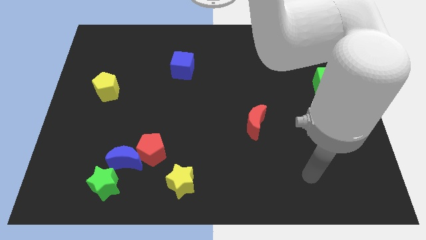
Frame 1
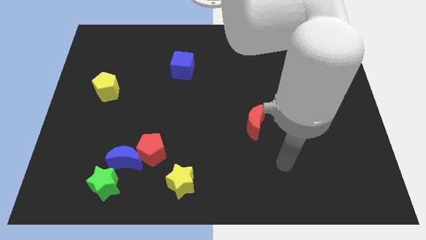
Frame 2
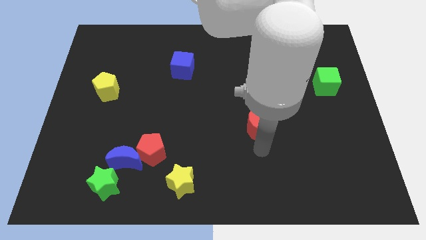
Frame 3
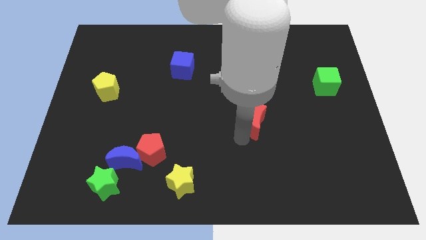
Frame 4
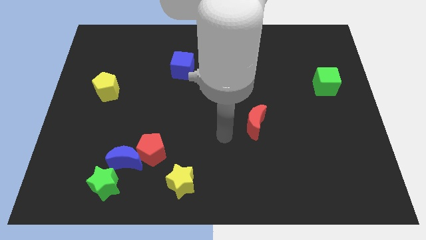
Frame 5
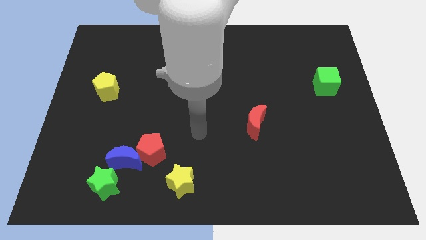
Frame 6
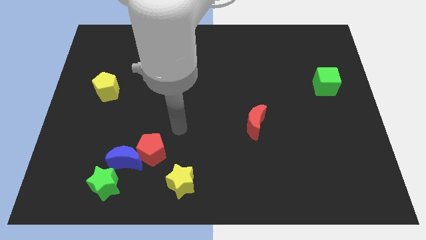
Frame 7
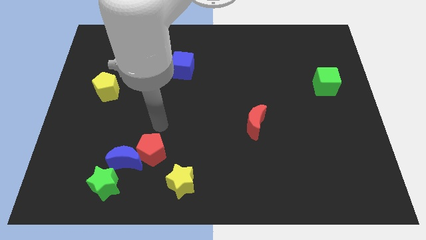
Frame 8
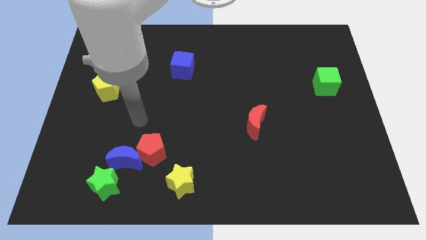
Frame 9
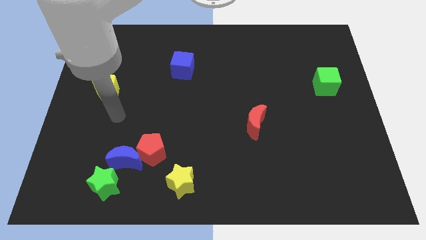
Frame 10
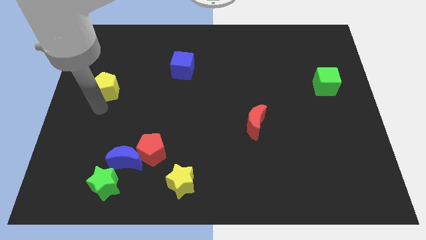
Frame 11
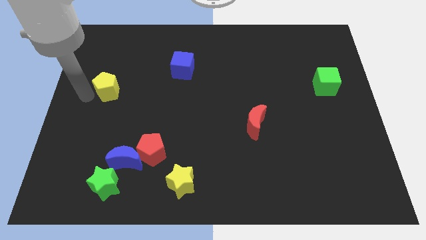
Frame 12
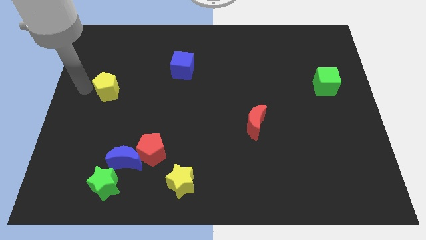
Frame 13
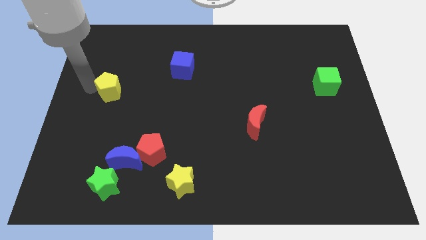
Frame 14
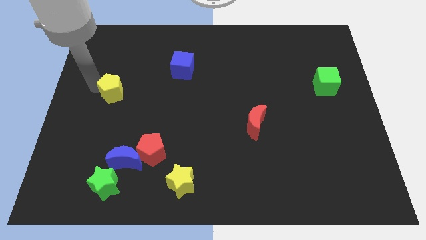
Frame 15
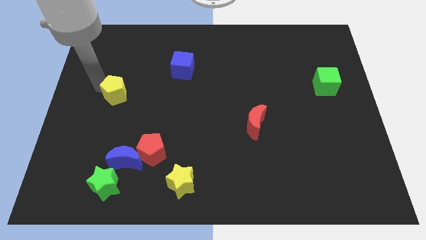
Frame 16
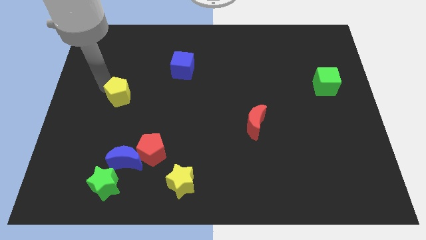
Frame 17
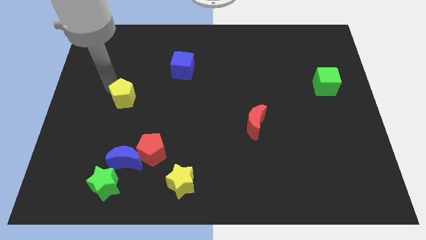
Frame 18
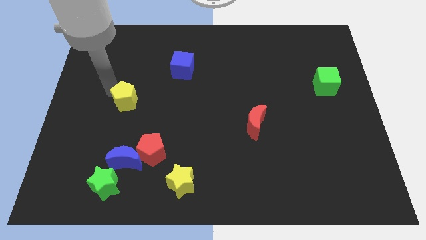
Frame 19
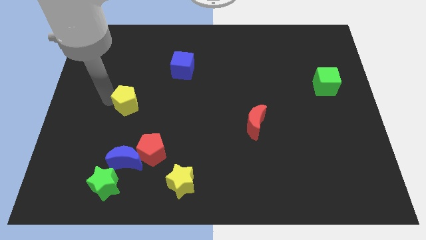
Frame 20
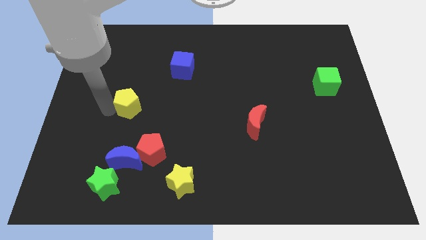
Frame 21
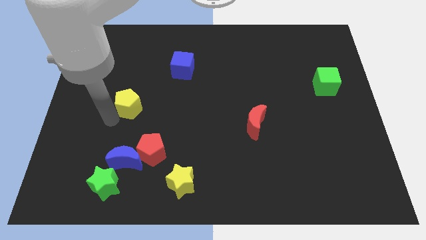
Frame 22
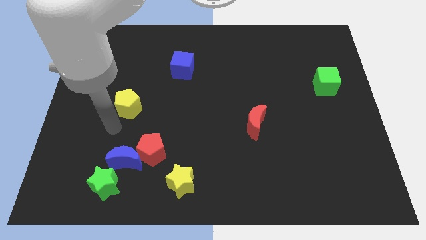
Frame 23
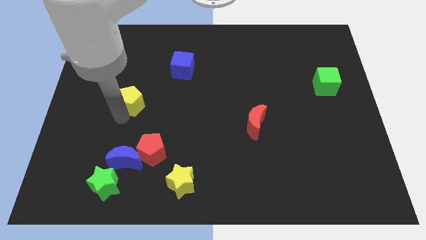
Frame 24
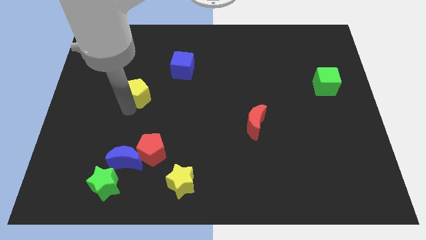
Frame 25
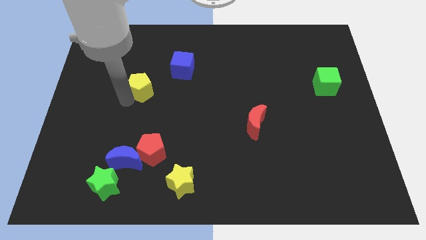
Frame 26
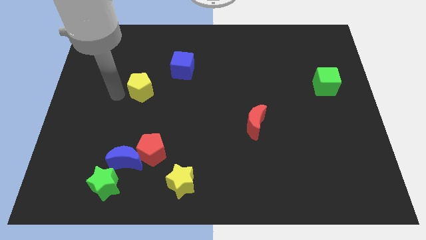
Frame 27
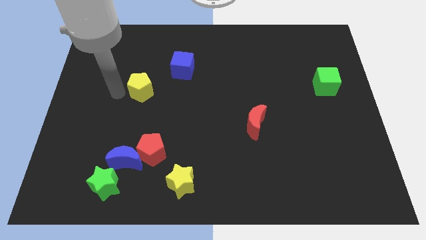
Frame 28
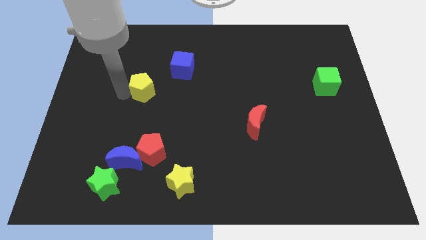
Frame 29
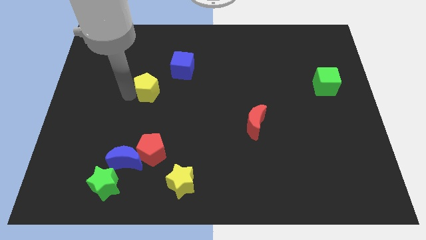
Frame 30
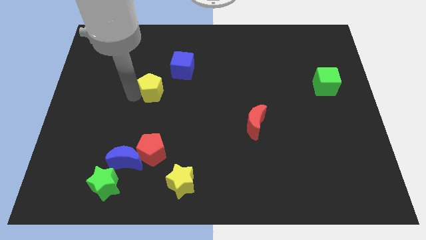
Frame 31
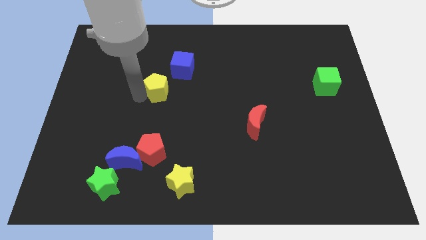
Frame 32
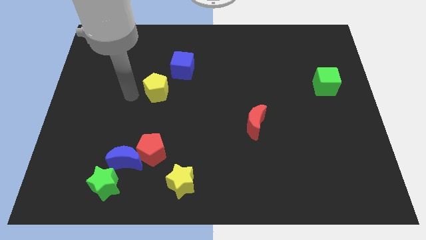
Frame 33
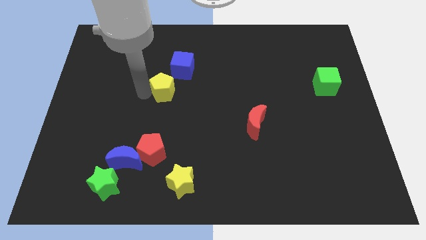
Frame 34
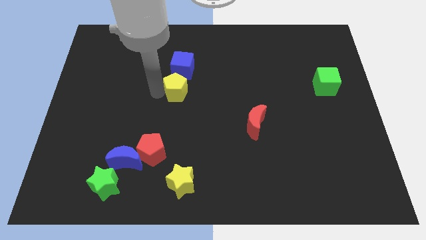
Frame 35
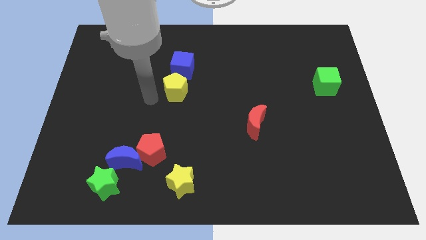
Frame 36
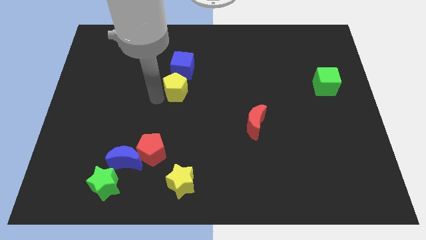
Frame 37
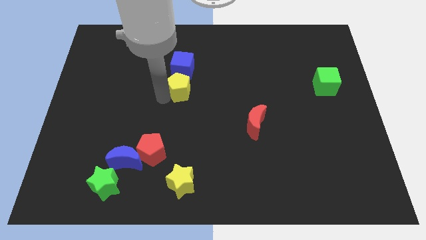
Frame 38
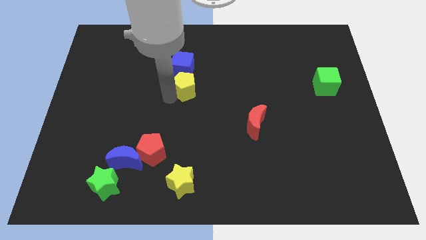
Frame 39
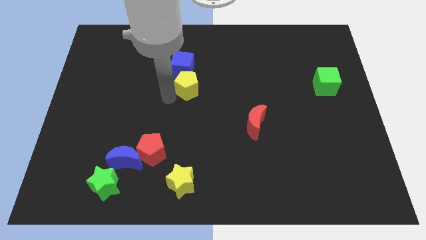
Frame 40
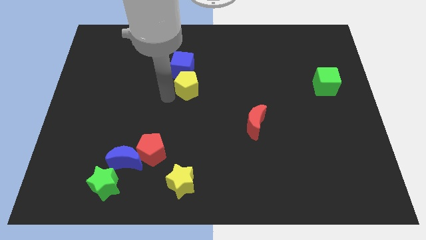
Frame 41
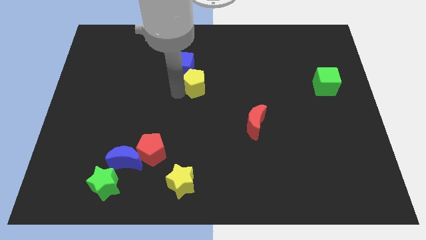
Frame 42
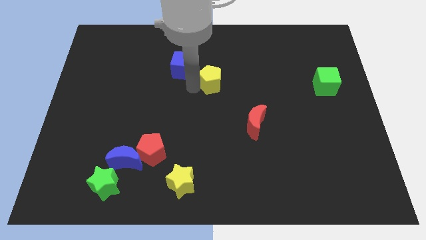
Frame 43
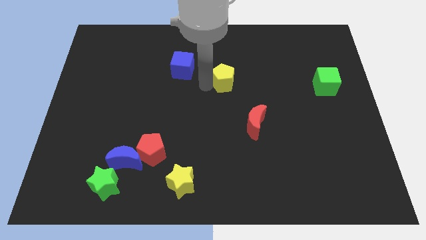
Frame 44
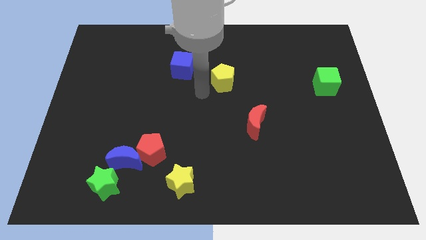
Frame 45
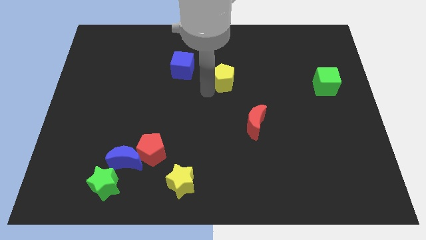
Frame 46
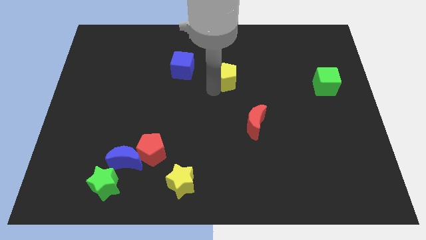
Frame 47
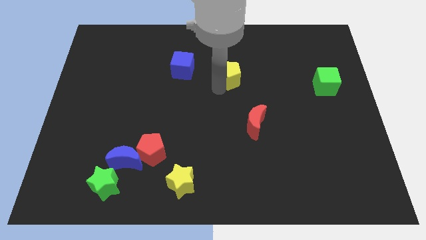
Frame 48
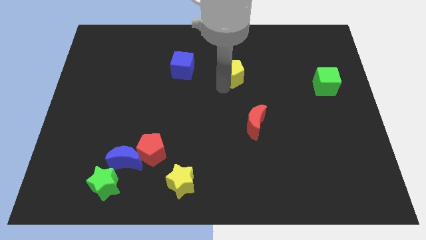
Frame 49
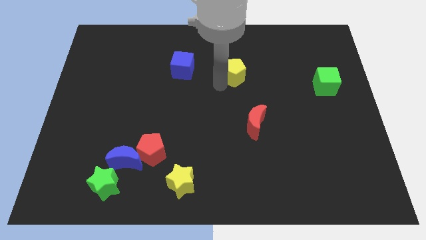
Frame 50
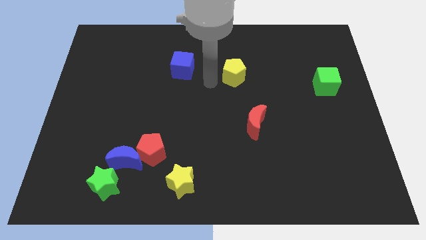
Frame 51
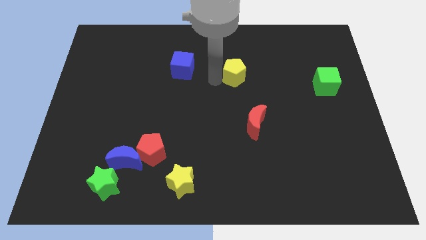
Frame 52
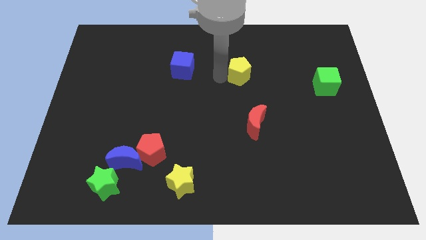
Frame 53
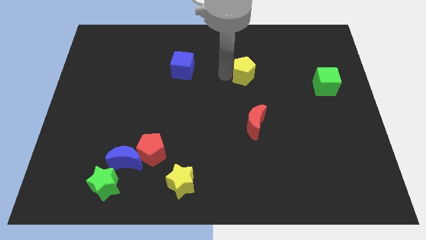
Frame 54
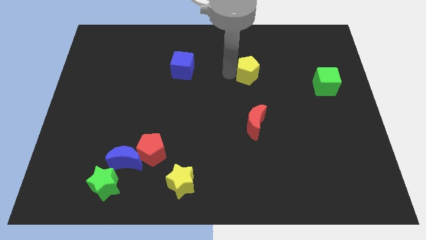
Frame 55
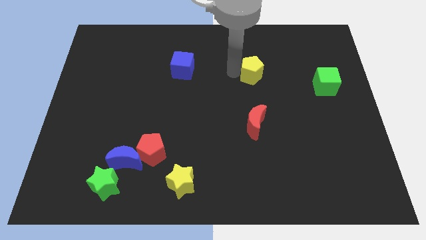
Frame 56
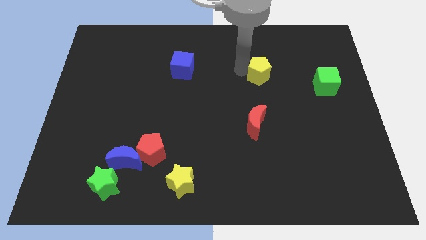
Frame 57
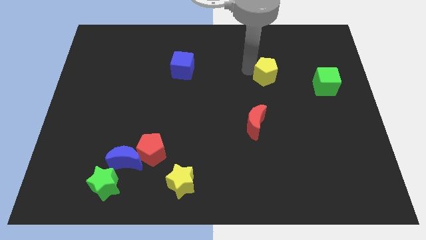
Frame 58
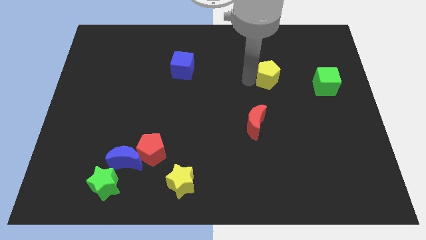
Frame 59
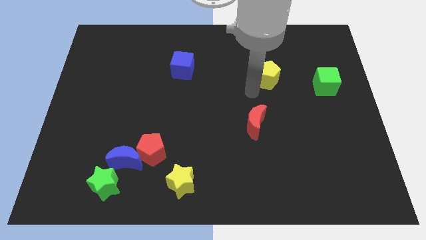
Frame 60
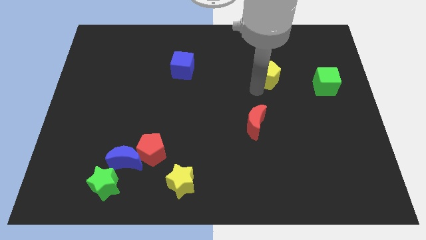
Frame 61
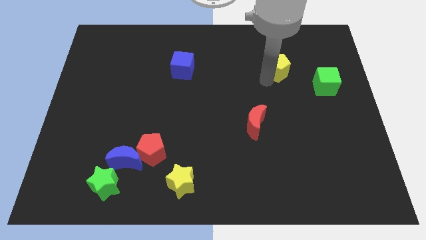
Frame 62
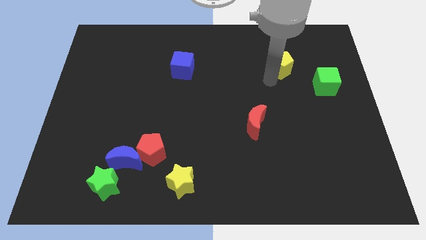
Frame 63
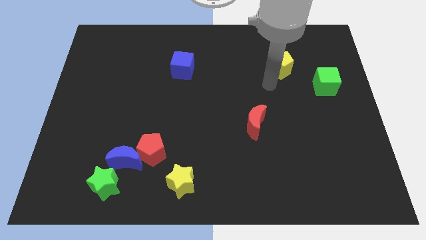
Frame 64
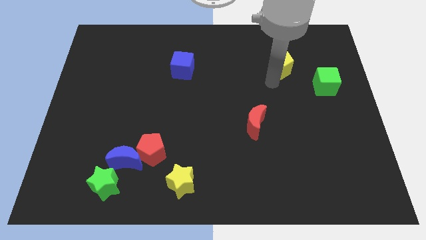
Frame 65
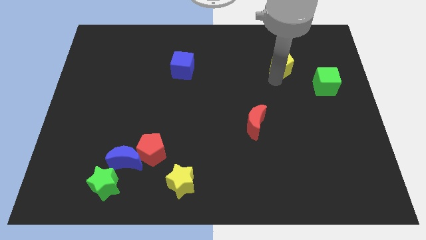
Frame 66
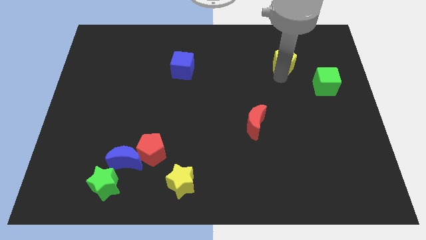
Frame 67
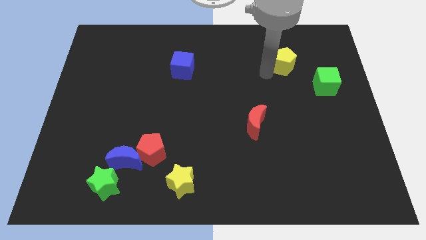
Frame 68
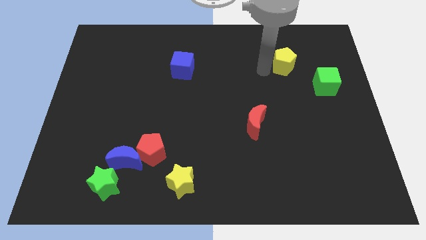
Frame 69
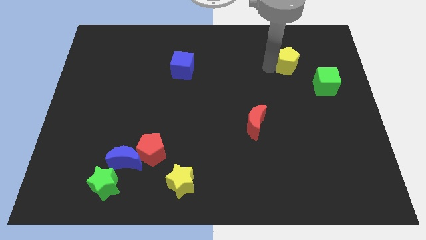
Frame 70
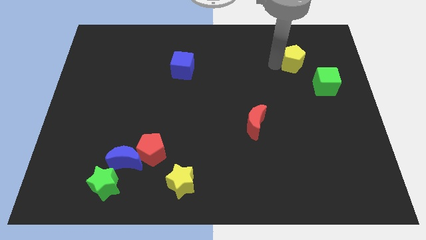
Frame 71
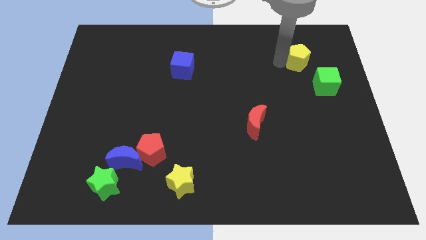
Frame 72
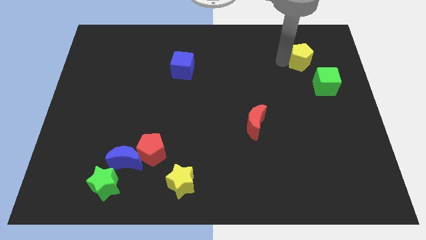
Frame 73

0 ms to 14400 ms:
slide the yellow pentagon above the green cube
